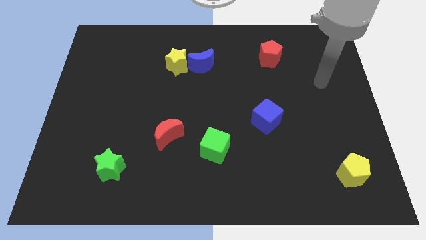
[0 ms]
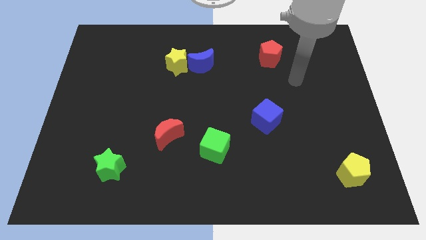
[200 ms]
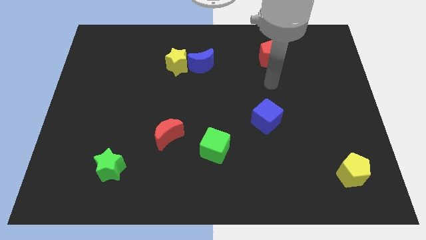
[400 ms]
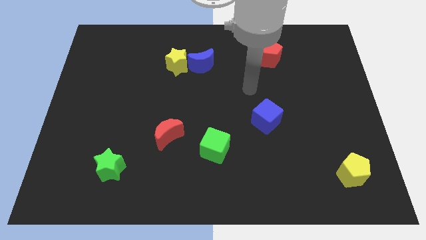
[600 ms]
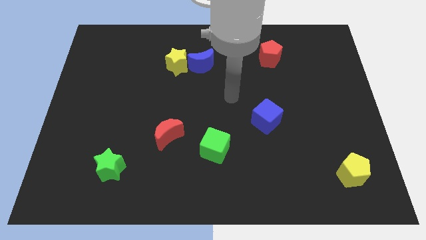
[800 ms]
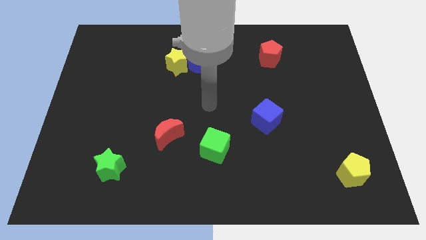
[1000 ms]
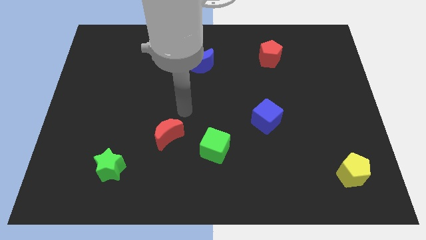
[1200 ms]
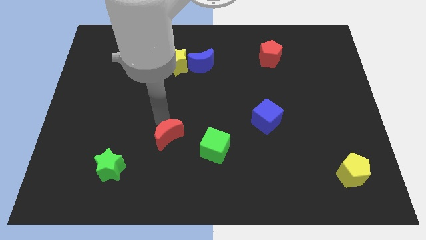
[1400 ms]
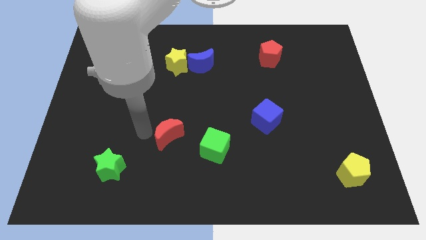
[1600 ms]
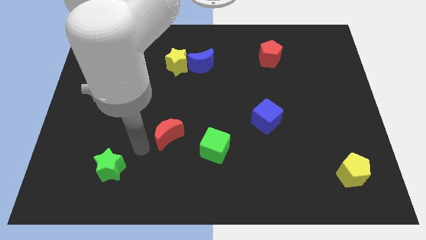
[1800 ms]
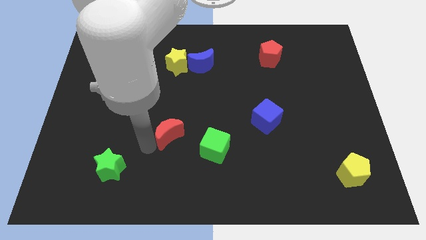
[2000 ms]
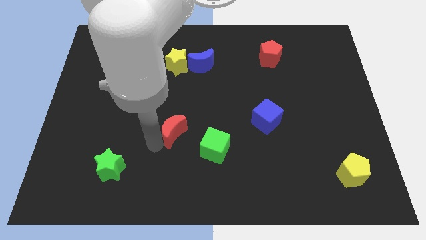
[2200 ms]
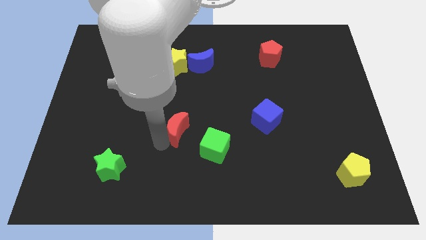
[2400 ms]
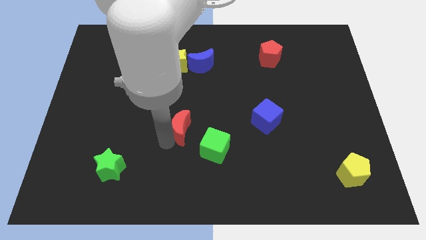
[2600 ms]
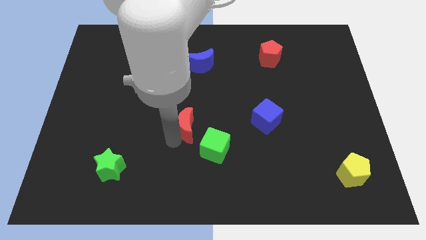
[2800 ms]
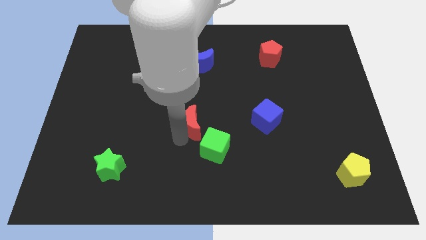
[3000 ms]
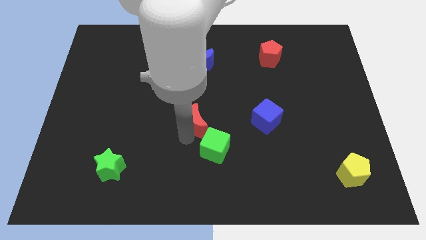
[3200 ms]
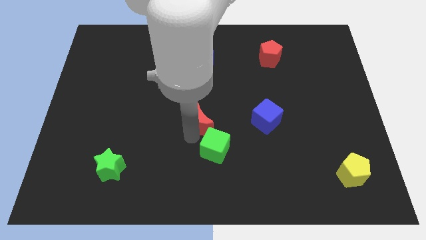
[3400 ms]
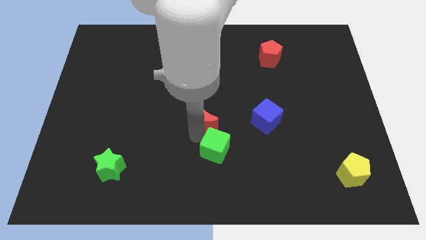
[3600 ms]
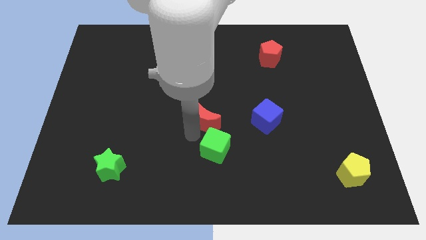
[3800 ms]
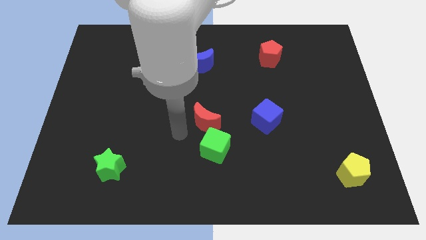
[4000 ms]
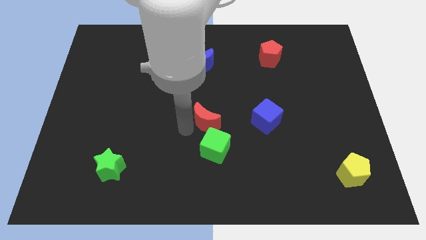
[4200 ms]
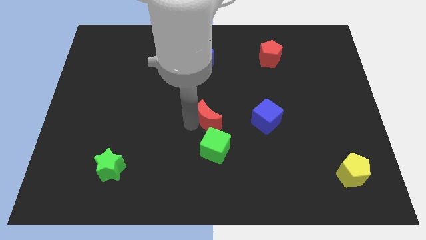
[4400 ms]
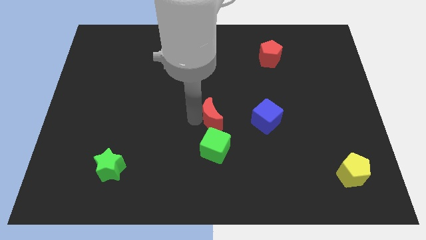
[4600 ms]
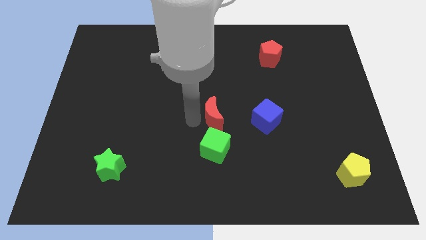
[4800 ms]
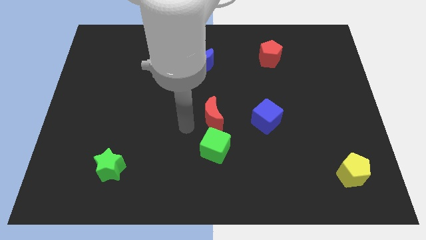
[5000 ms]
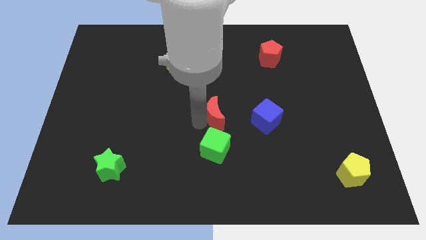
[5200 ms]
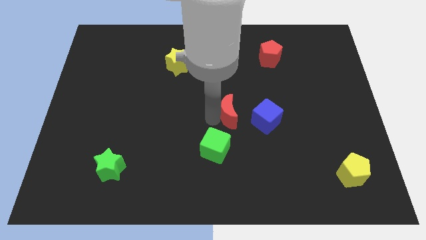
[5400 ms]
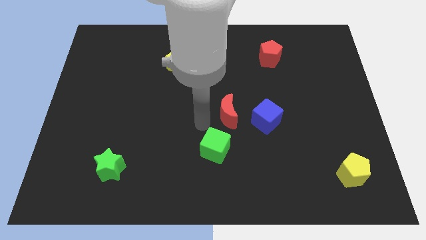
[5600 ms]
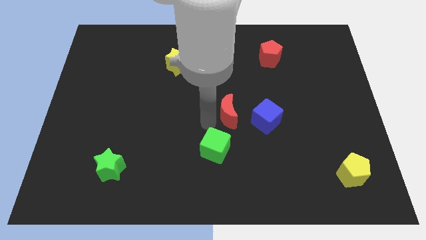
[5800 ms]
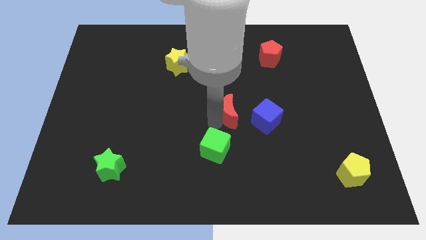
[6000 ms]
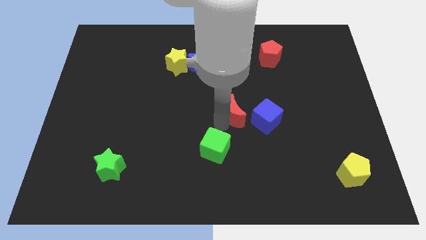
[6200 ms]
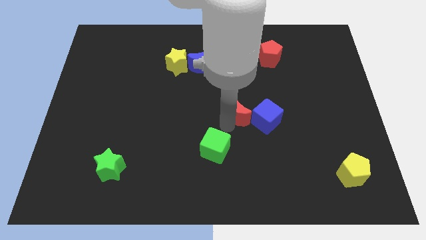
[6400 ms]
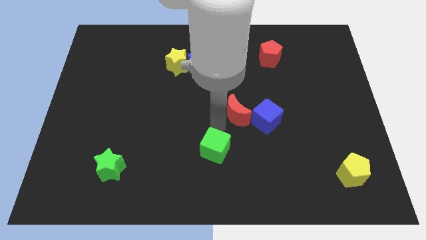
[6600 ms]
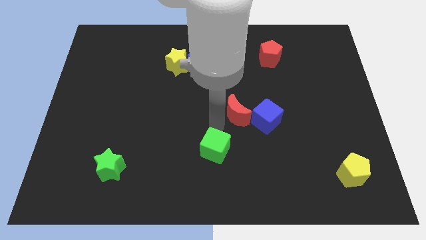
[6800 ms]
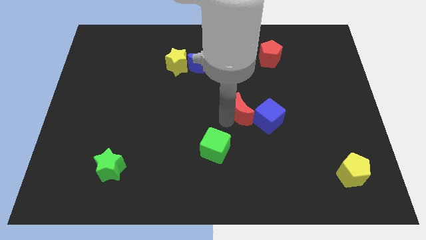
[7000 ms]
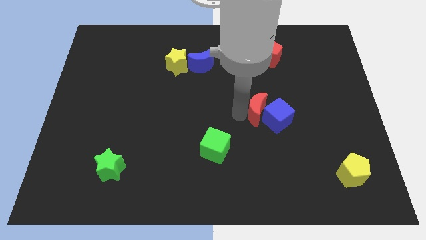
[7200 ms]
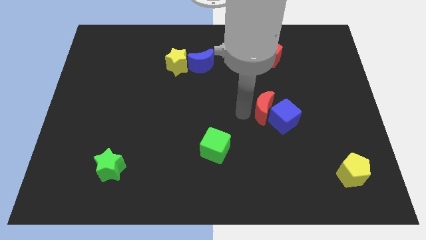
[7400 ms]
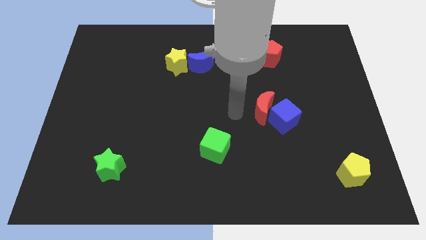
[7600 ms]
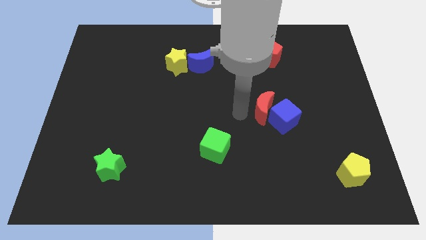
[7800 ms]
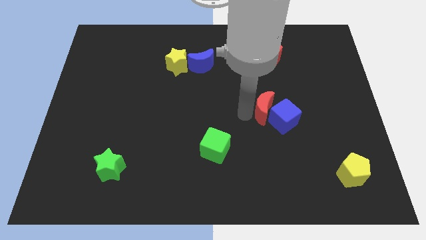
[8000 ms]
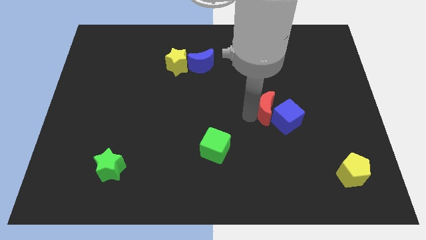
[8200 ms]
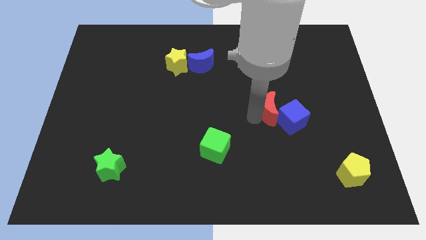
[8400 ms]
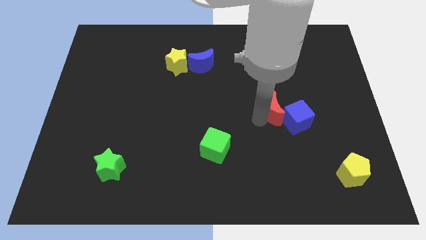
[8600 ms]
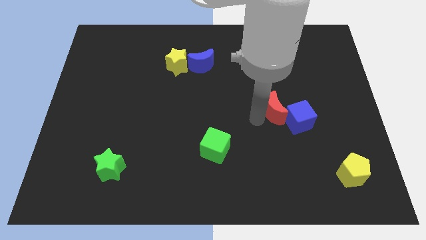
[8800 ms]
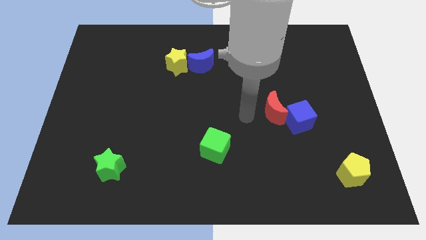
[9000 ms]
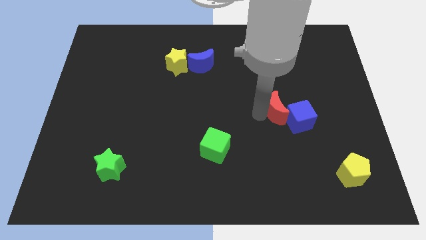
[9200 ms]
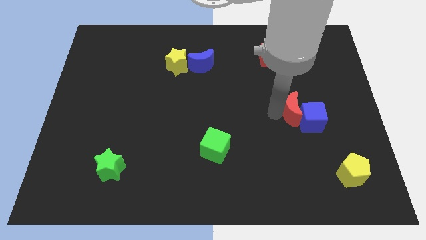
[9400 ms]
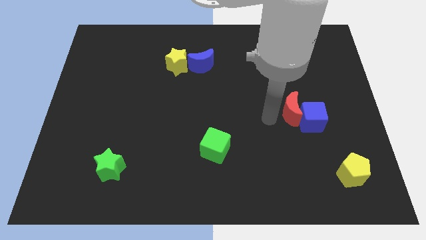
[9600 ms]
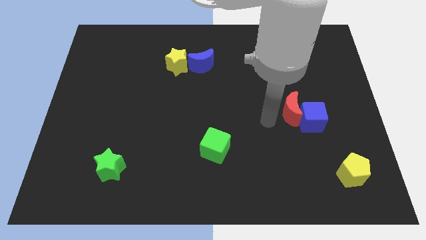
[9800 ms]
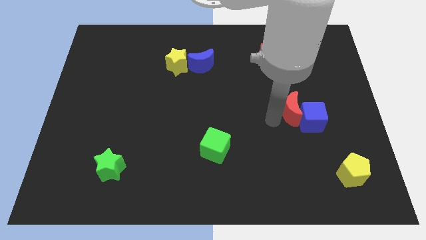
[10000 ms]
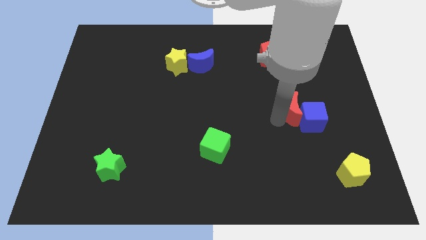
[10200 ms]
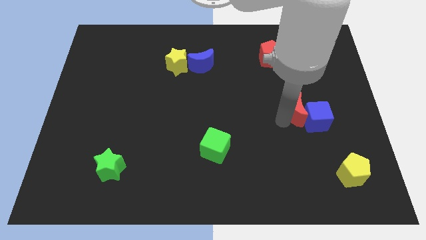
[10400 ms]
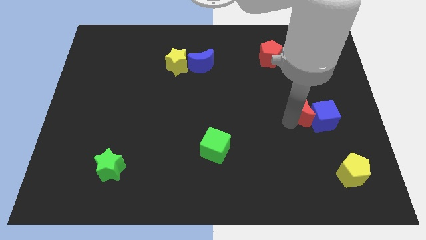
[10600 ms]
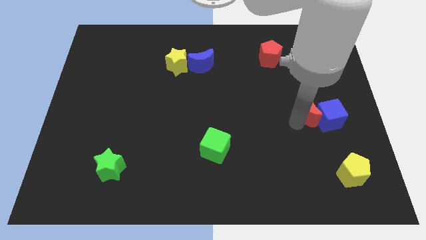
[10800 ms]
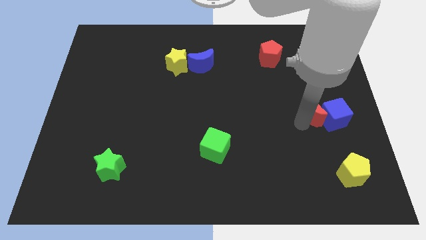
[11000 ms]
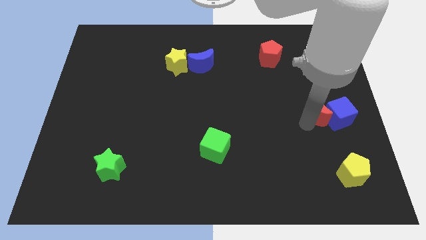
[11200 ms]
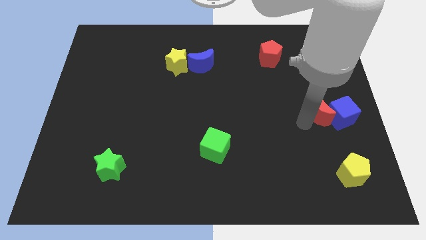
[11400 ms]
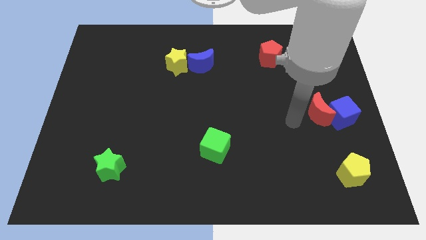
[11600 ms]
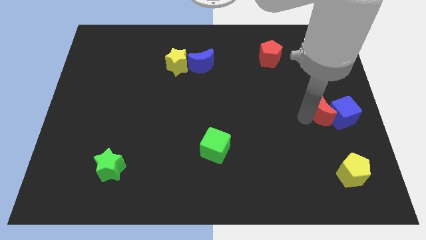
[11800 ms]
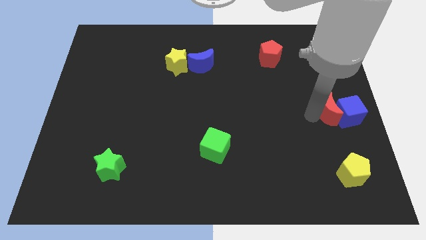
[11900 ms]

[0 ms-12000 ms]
slide the red moon to the right side of the board
